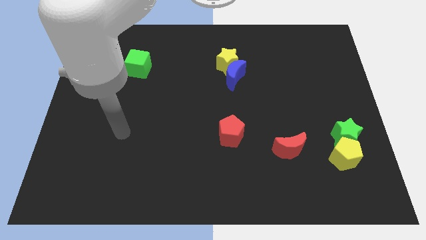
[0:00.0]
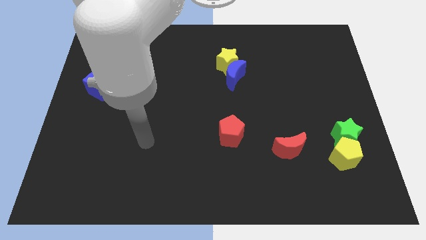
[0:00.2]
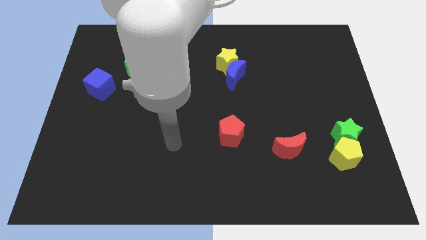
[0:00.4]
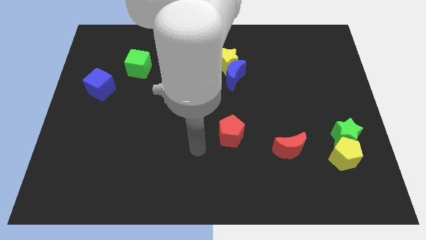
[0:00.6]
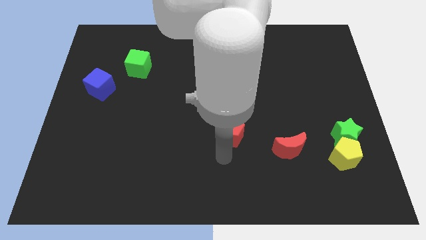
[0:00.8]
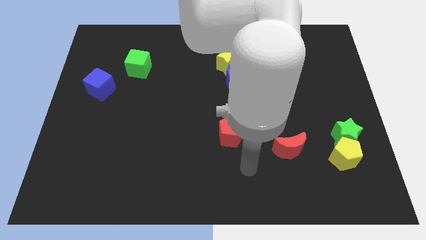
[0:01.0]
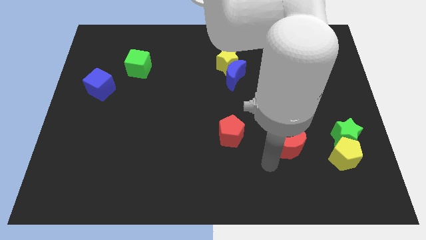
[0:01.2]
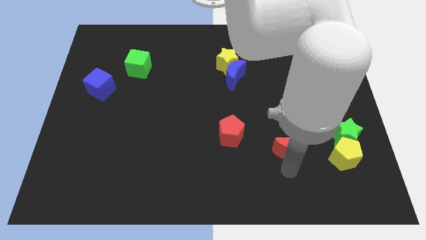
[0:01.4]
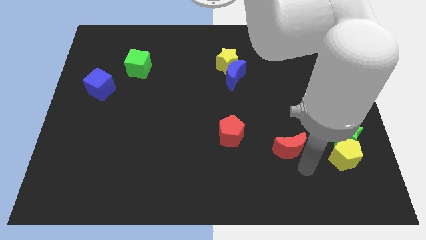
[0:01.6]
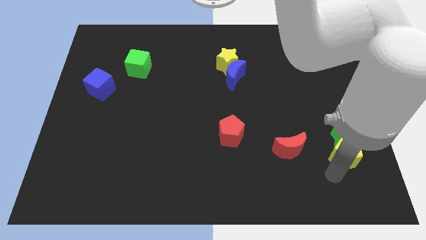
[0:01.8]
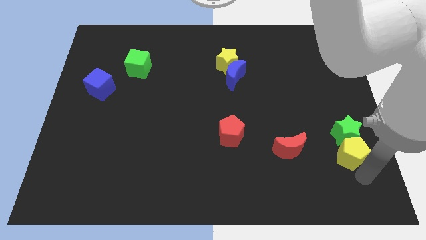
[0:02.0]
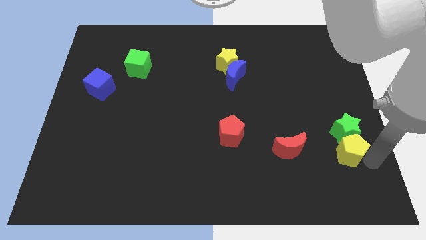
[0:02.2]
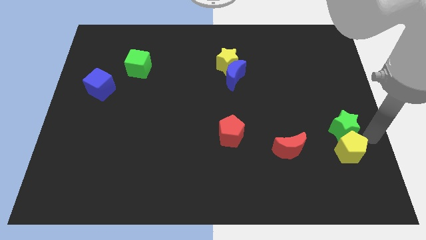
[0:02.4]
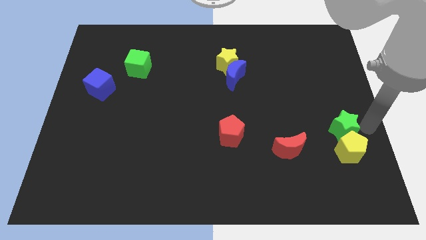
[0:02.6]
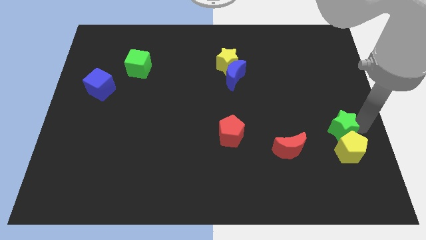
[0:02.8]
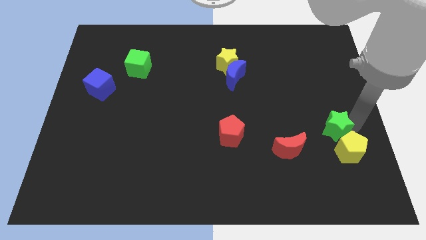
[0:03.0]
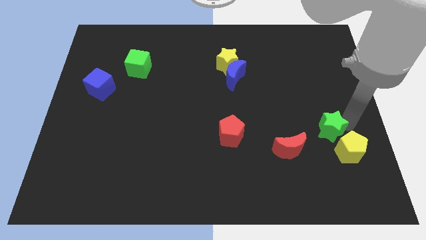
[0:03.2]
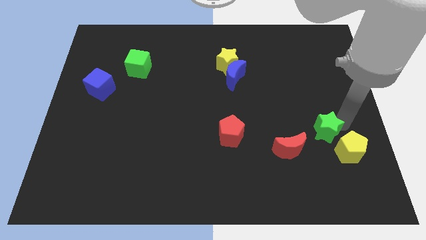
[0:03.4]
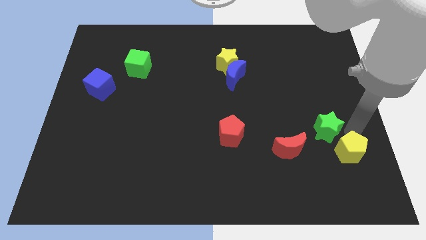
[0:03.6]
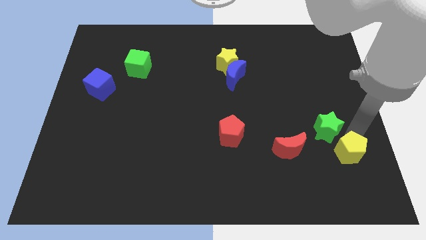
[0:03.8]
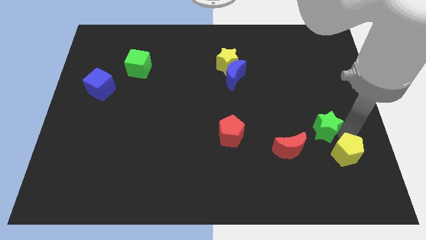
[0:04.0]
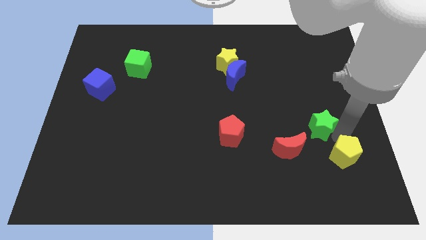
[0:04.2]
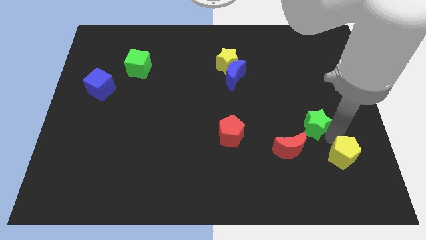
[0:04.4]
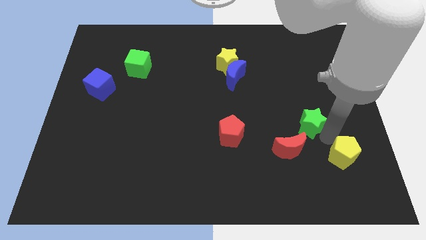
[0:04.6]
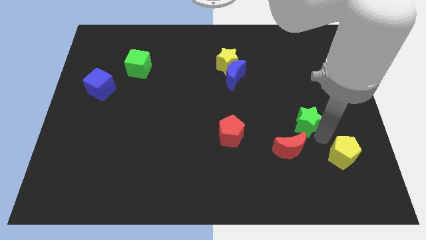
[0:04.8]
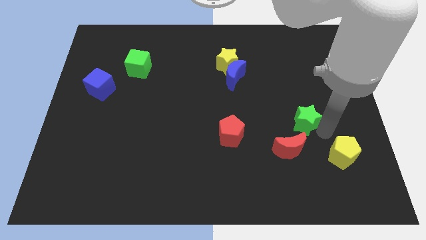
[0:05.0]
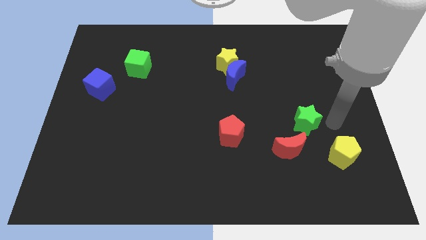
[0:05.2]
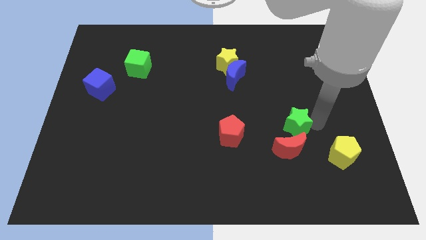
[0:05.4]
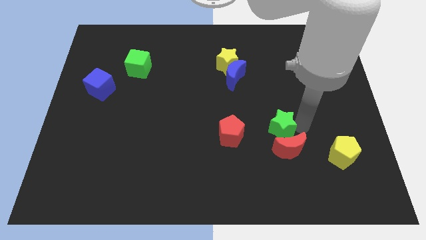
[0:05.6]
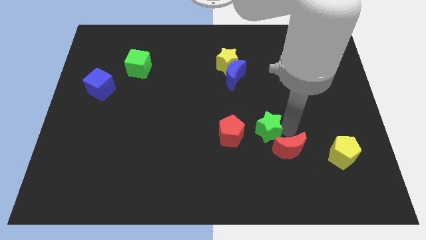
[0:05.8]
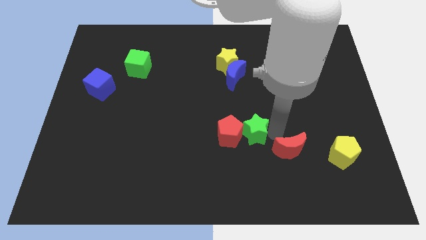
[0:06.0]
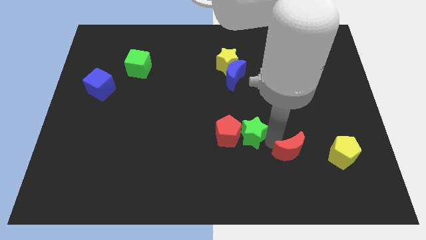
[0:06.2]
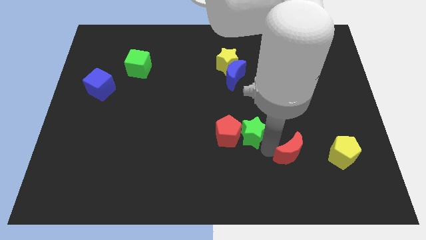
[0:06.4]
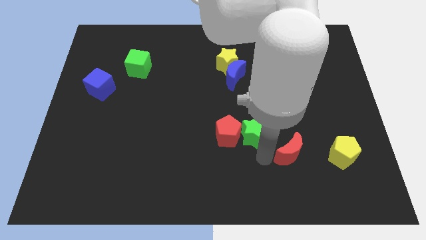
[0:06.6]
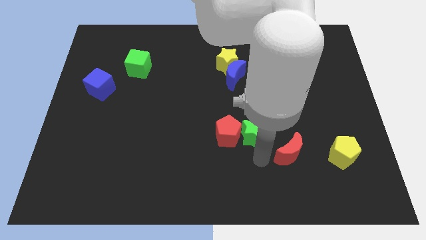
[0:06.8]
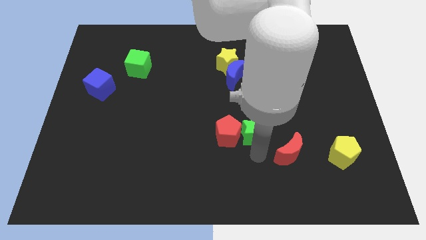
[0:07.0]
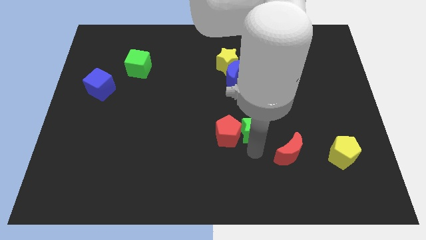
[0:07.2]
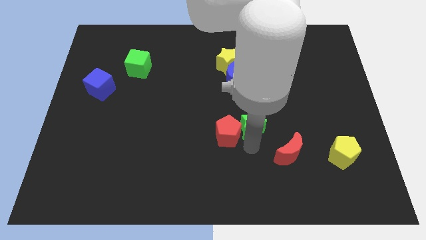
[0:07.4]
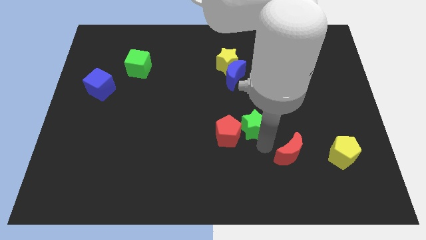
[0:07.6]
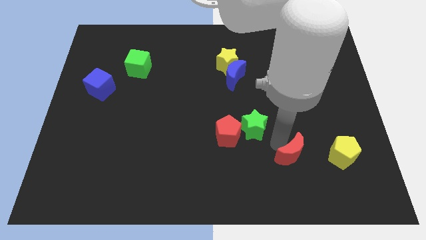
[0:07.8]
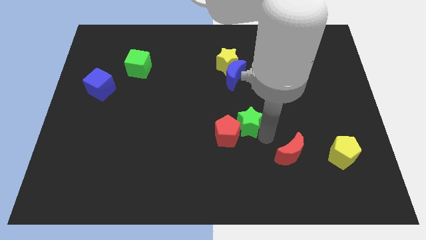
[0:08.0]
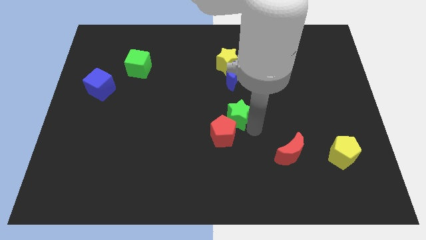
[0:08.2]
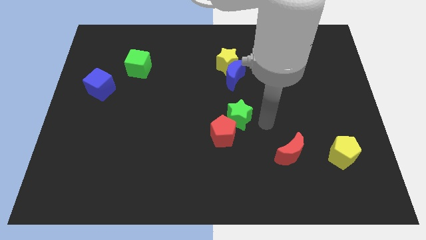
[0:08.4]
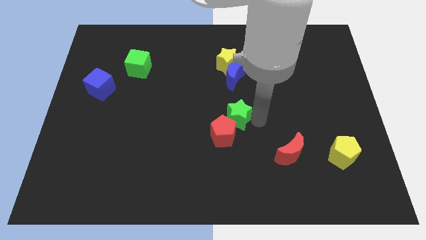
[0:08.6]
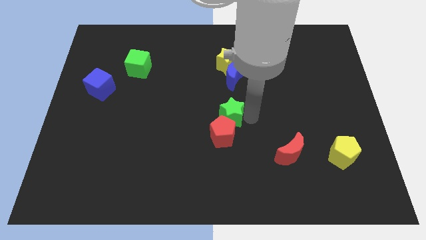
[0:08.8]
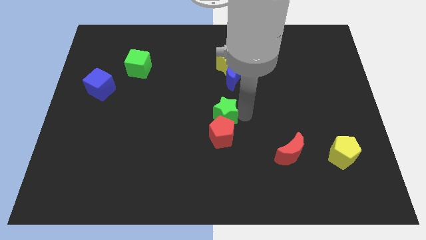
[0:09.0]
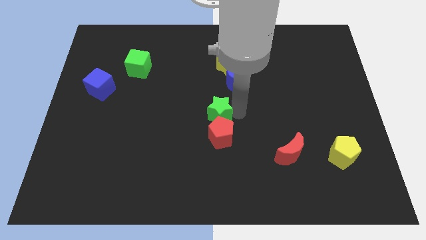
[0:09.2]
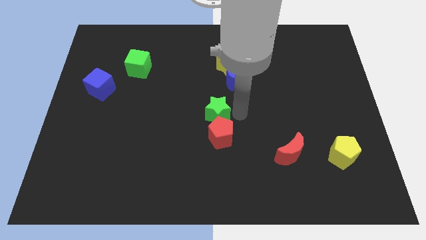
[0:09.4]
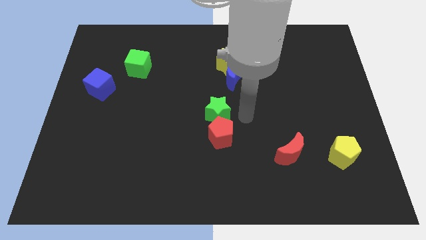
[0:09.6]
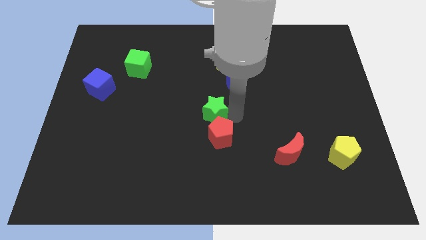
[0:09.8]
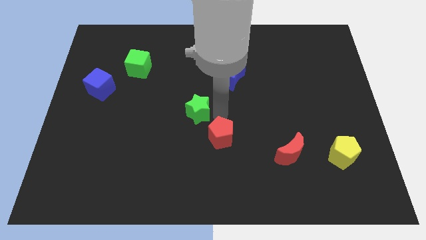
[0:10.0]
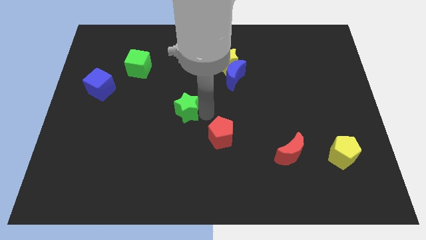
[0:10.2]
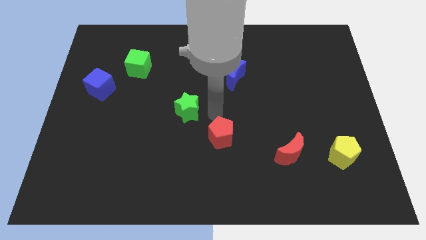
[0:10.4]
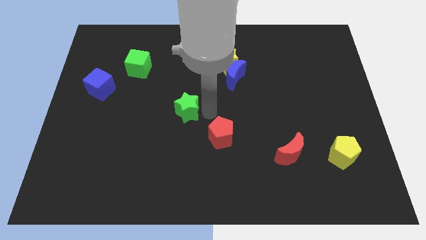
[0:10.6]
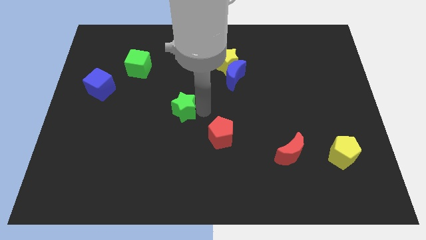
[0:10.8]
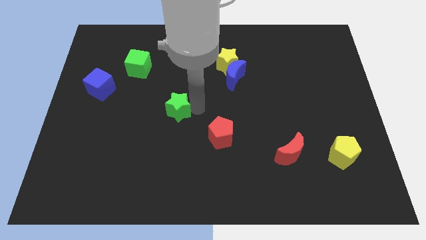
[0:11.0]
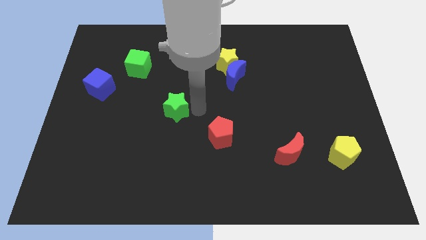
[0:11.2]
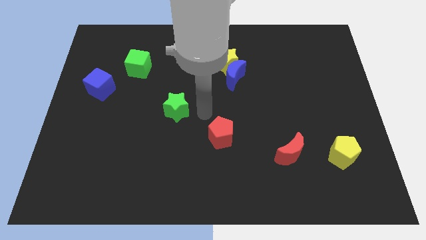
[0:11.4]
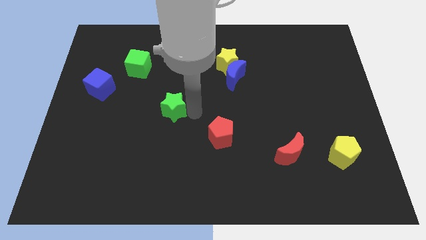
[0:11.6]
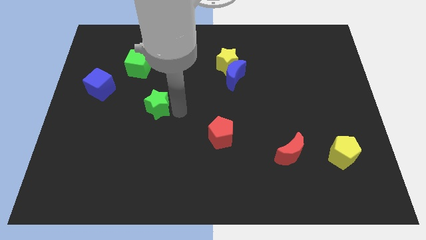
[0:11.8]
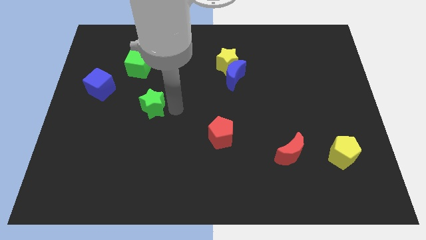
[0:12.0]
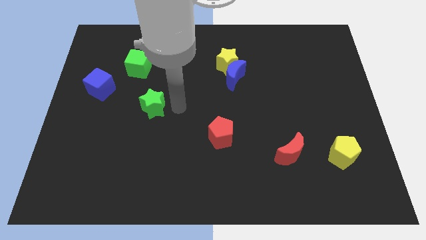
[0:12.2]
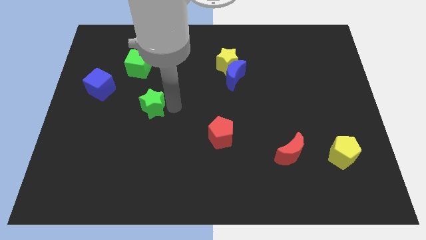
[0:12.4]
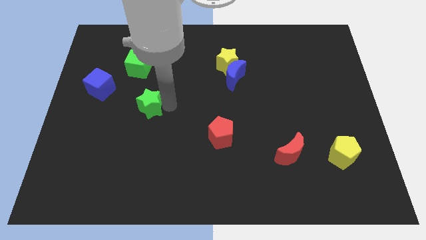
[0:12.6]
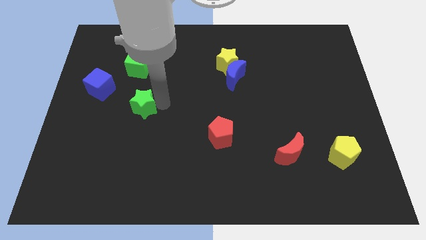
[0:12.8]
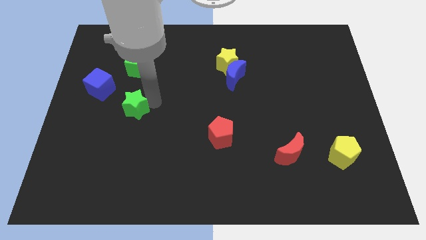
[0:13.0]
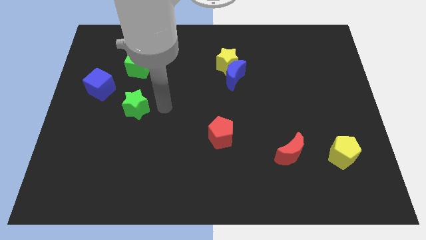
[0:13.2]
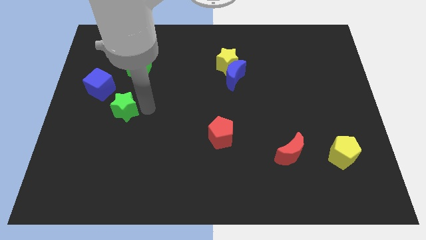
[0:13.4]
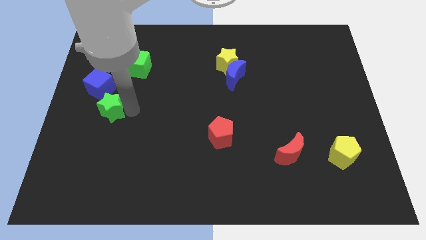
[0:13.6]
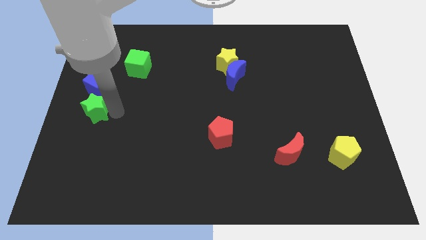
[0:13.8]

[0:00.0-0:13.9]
put the green star to the center left
